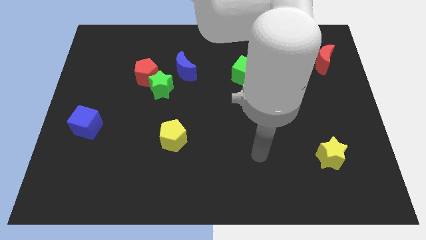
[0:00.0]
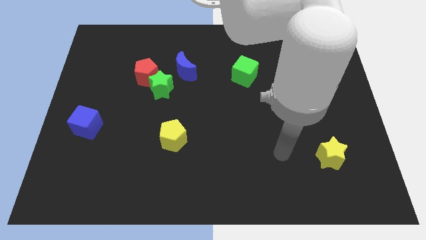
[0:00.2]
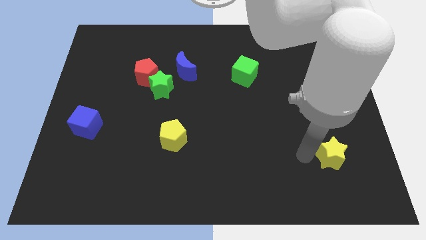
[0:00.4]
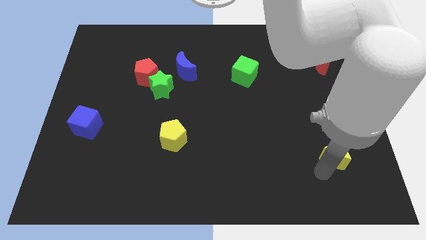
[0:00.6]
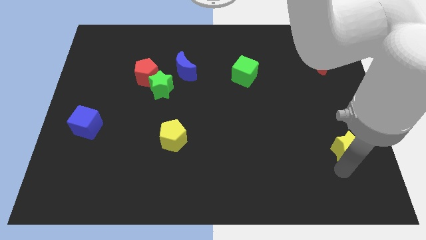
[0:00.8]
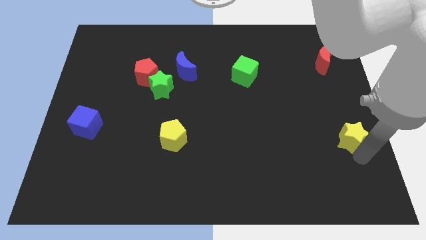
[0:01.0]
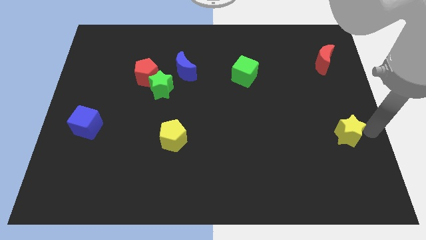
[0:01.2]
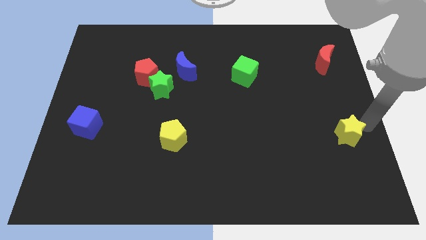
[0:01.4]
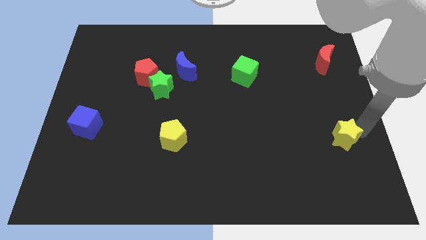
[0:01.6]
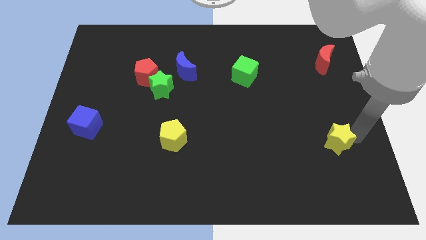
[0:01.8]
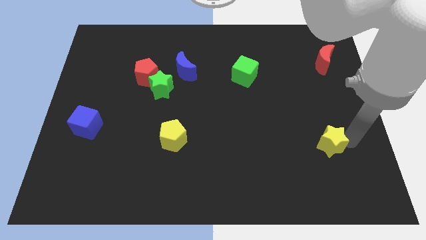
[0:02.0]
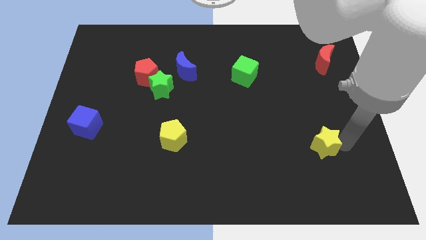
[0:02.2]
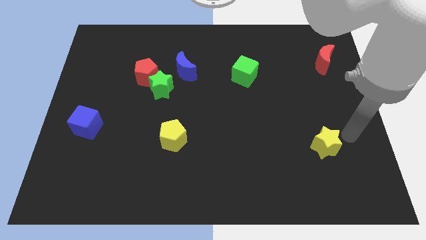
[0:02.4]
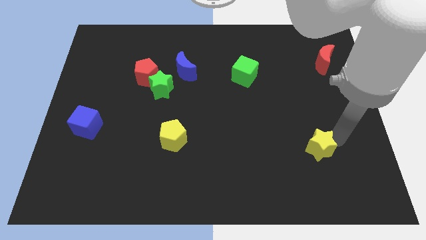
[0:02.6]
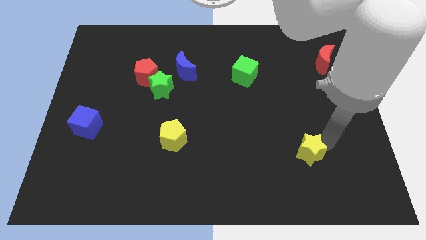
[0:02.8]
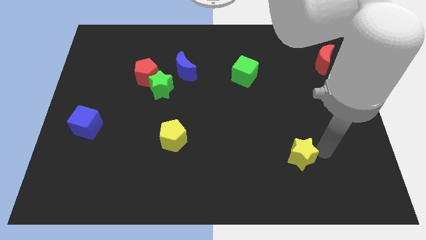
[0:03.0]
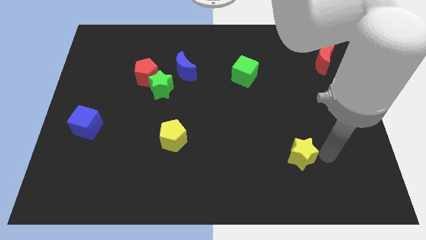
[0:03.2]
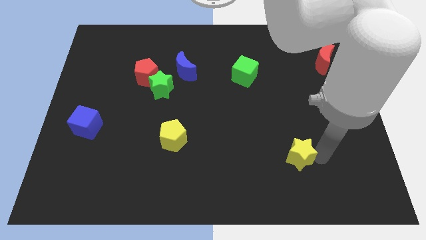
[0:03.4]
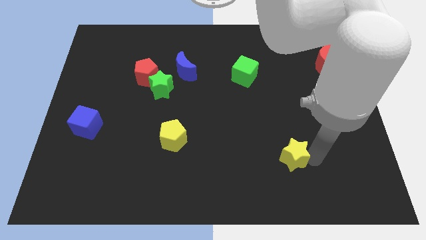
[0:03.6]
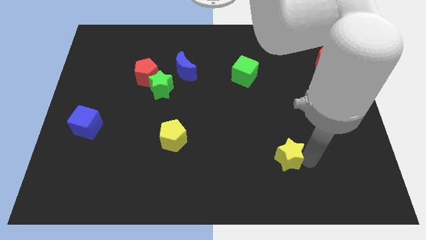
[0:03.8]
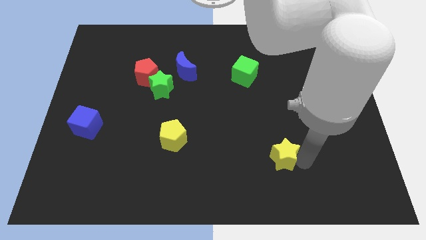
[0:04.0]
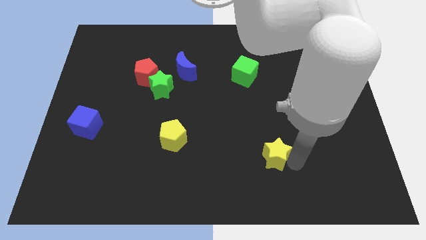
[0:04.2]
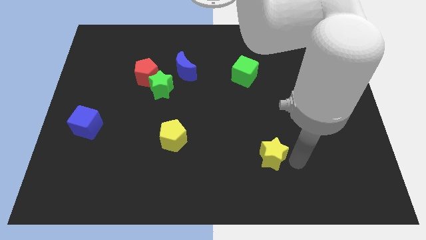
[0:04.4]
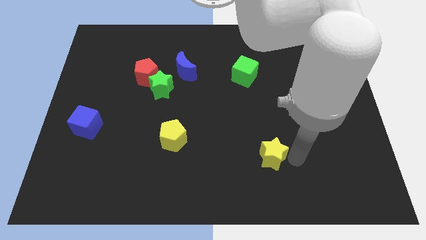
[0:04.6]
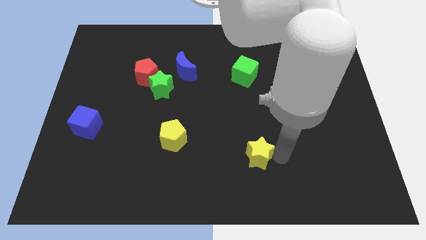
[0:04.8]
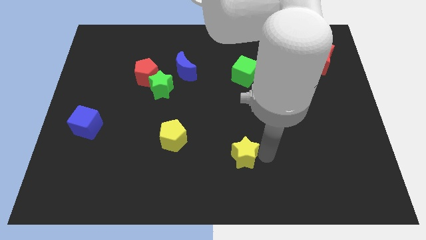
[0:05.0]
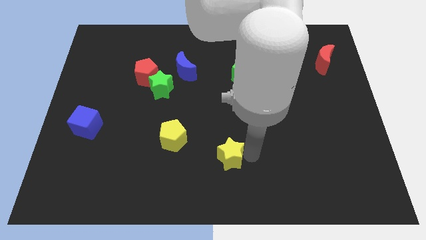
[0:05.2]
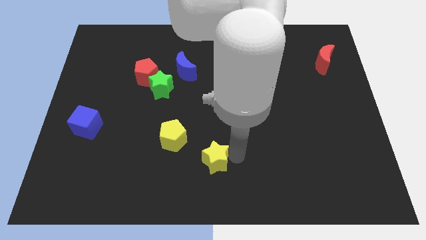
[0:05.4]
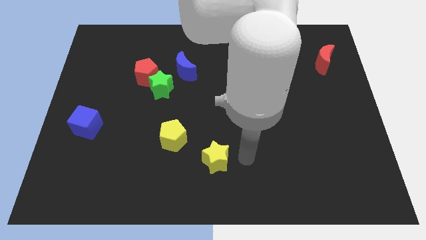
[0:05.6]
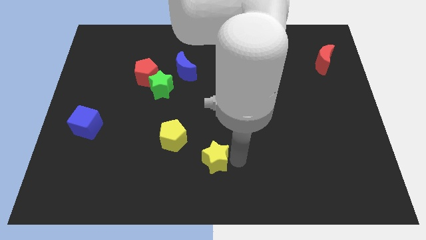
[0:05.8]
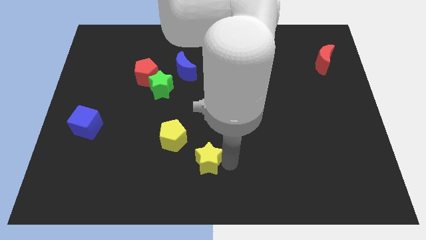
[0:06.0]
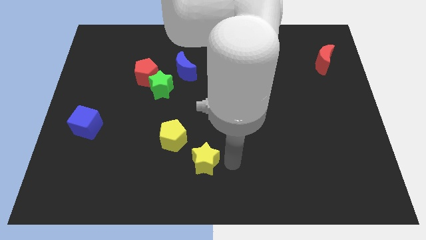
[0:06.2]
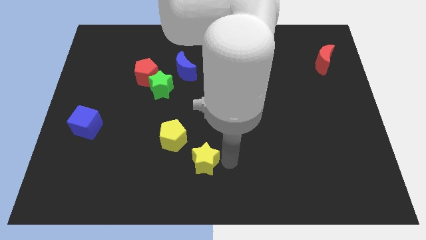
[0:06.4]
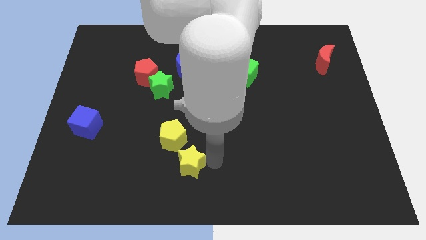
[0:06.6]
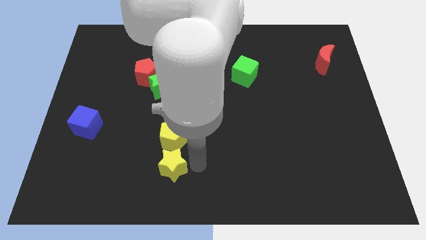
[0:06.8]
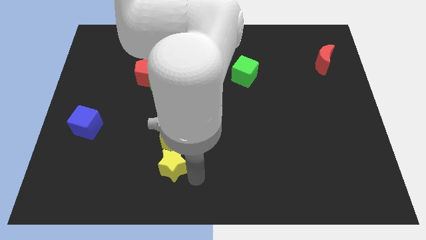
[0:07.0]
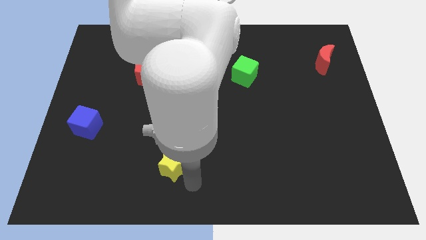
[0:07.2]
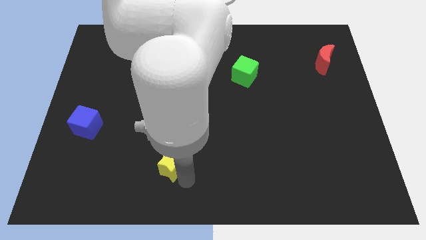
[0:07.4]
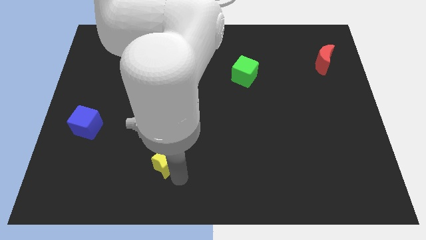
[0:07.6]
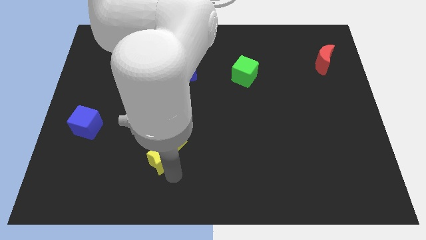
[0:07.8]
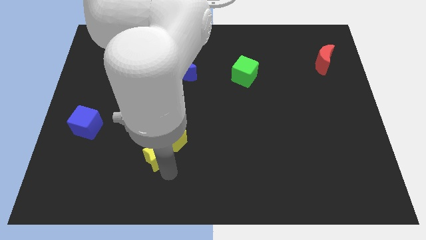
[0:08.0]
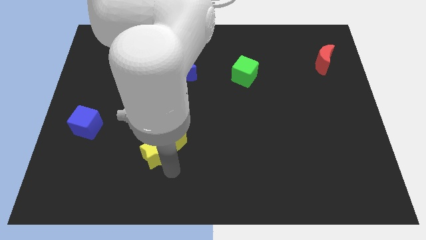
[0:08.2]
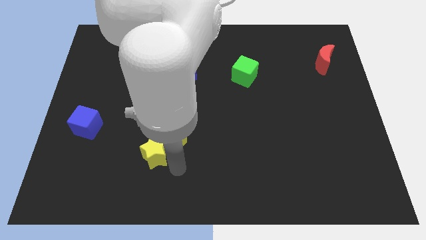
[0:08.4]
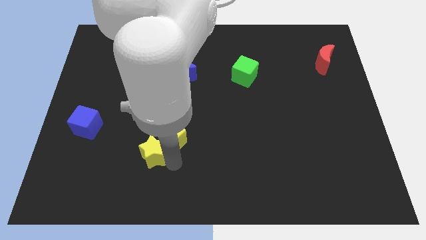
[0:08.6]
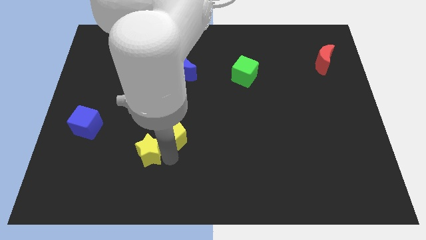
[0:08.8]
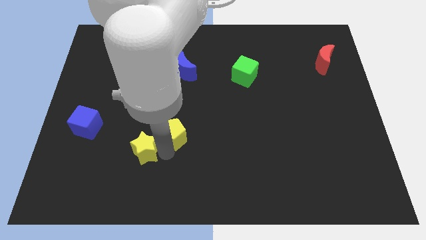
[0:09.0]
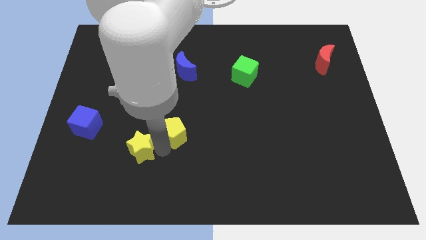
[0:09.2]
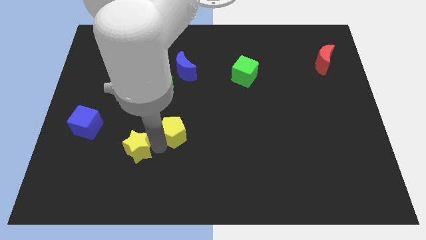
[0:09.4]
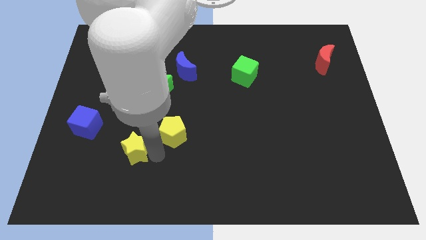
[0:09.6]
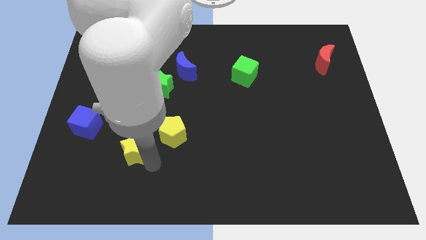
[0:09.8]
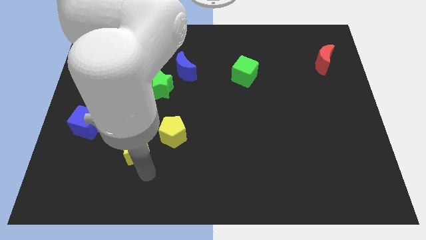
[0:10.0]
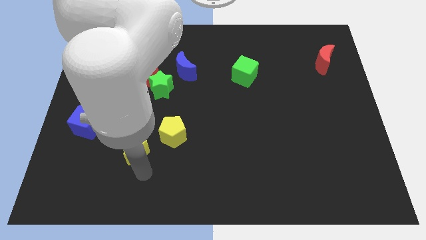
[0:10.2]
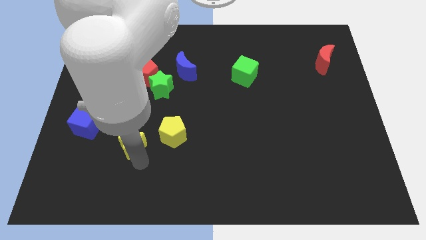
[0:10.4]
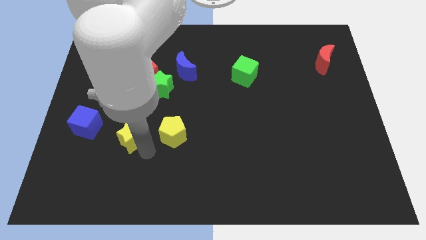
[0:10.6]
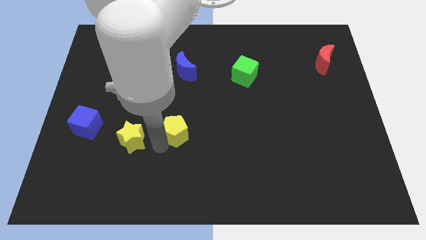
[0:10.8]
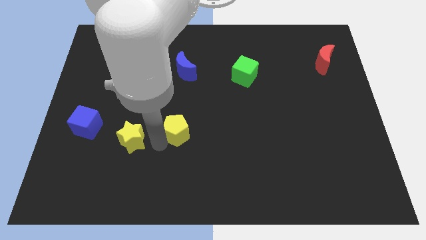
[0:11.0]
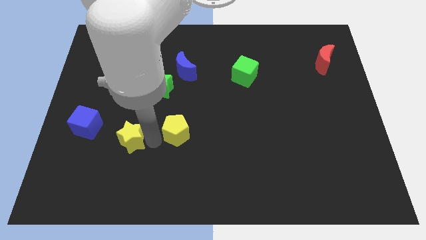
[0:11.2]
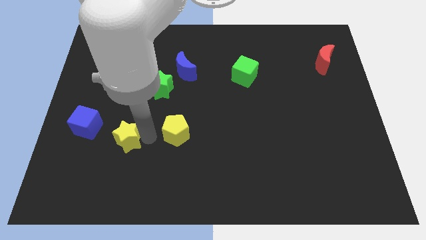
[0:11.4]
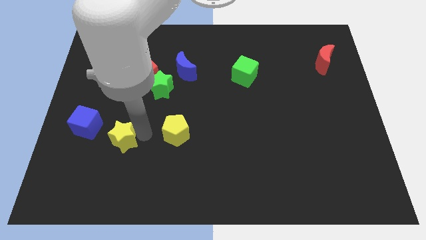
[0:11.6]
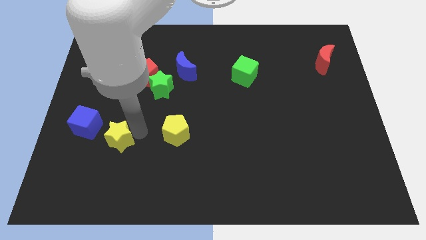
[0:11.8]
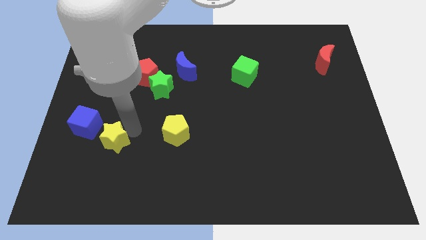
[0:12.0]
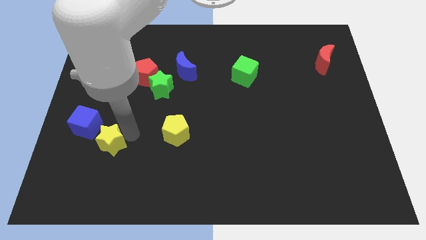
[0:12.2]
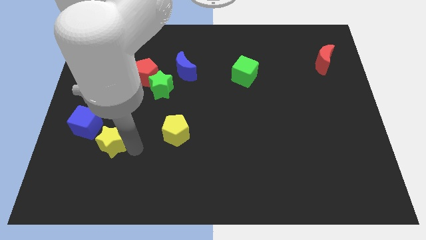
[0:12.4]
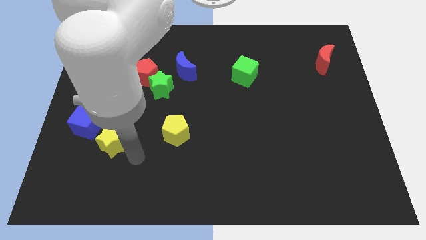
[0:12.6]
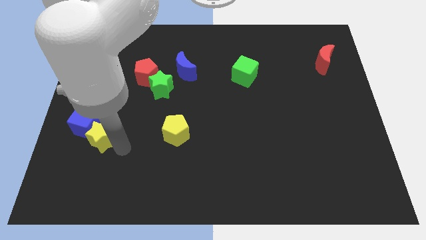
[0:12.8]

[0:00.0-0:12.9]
slide the yellow star towards the blue cube
